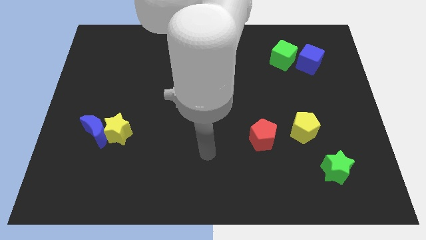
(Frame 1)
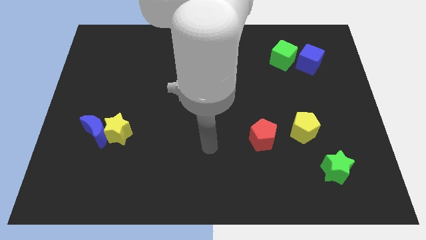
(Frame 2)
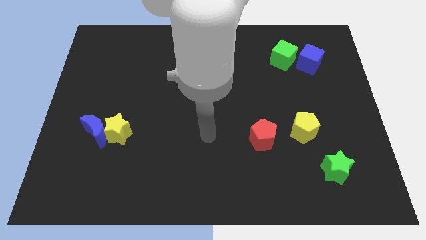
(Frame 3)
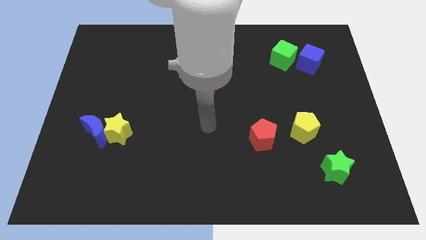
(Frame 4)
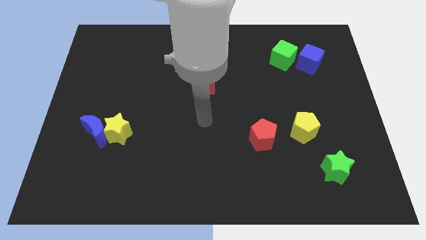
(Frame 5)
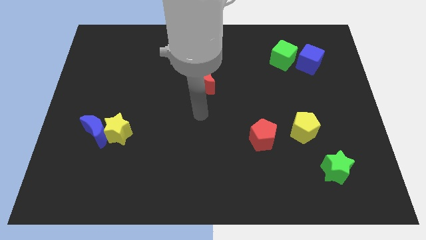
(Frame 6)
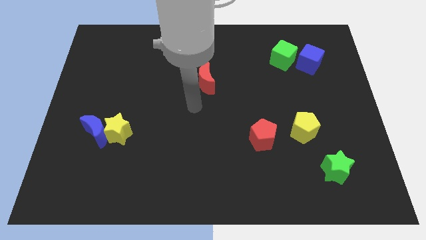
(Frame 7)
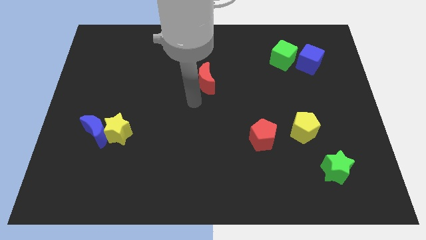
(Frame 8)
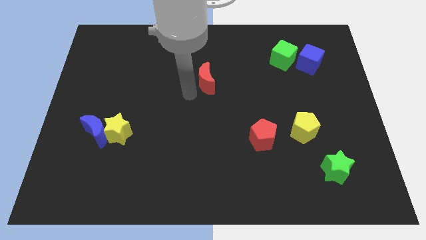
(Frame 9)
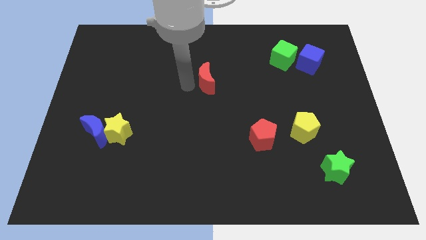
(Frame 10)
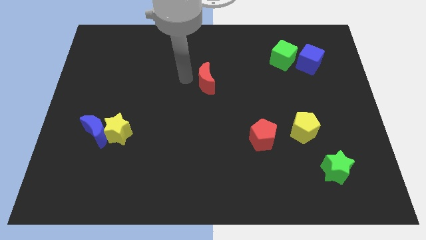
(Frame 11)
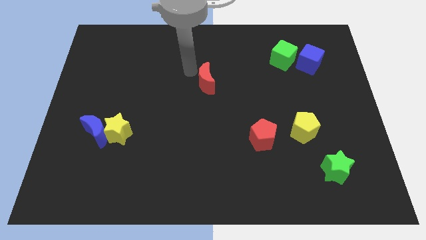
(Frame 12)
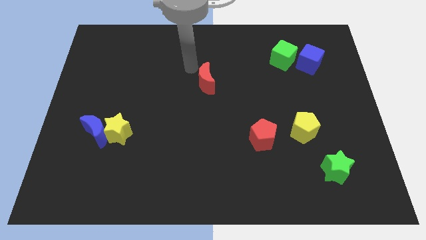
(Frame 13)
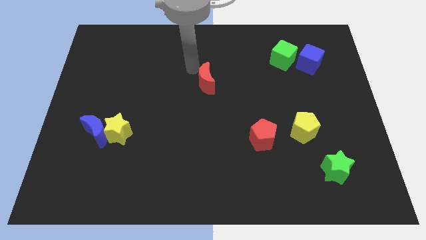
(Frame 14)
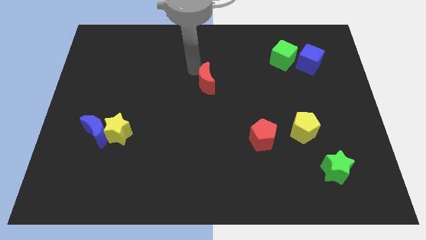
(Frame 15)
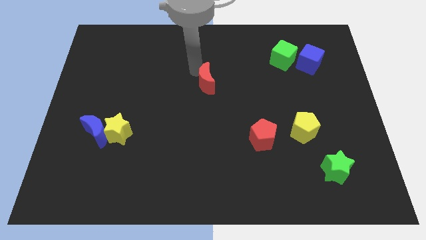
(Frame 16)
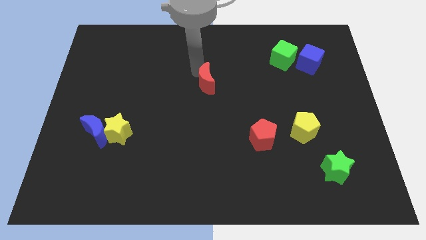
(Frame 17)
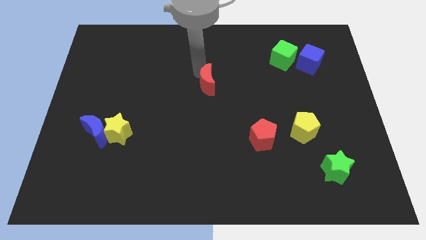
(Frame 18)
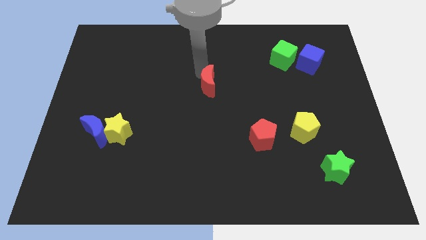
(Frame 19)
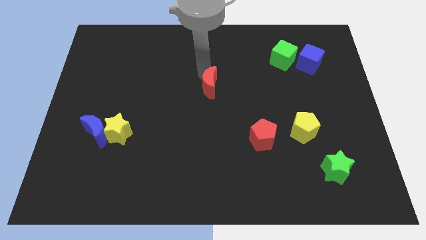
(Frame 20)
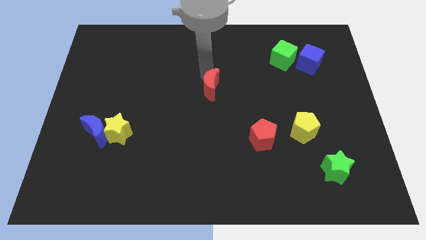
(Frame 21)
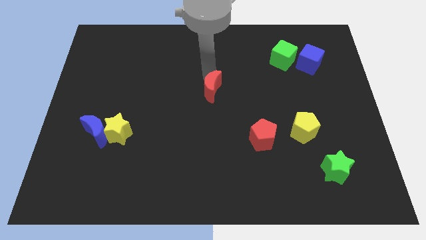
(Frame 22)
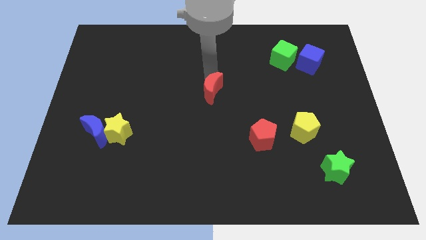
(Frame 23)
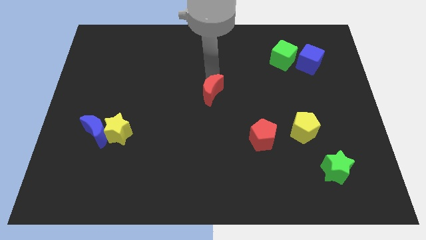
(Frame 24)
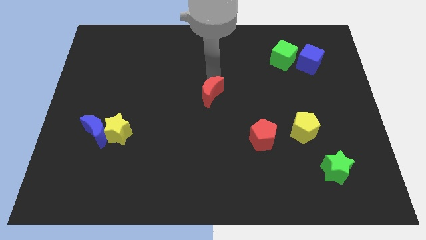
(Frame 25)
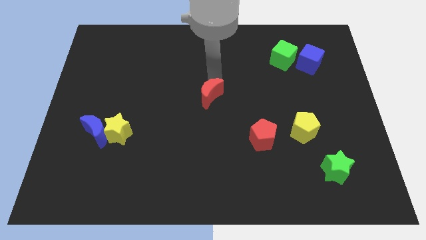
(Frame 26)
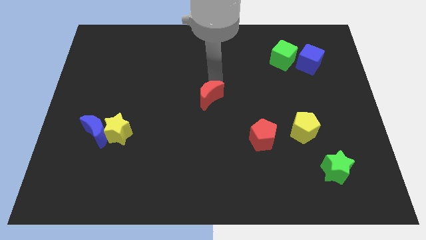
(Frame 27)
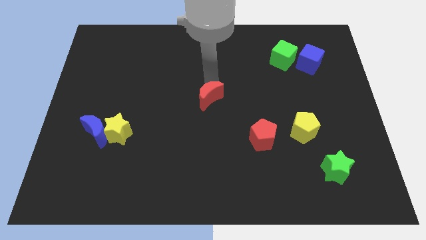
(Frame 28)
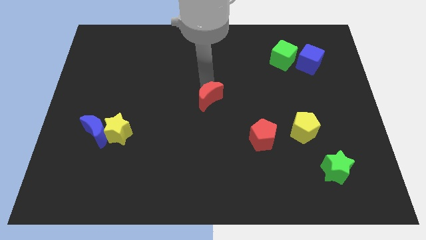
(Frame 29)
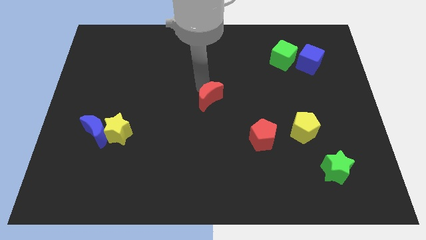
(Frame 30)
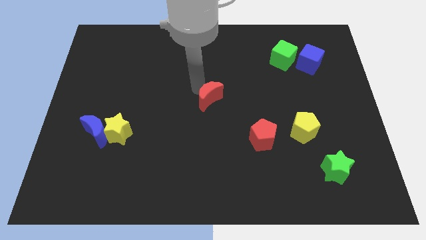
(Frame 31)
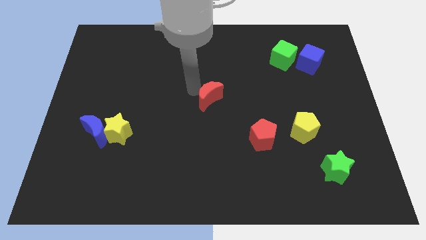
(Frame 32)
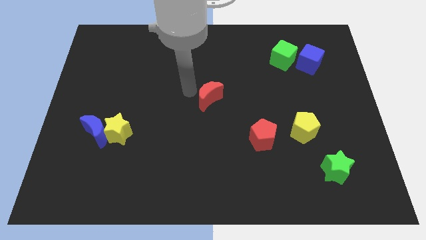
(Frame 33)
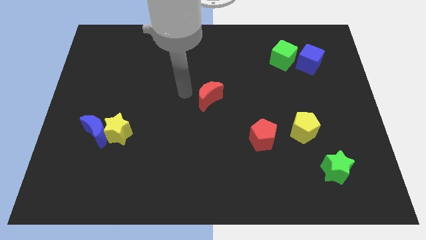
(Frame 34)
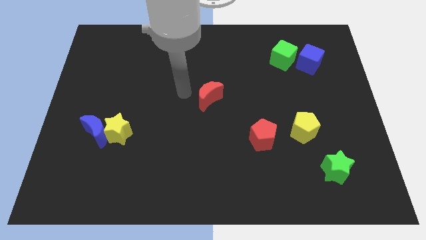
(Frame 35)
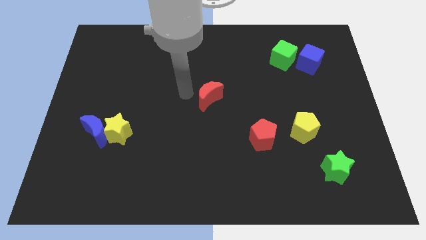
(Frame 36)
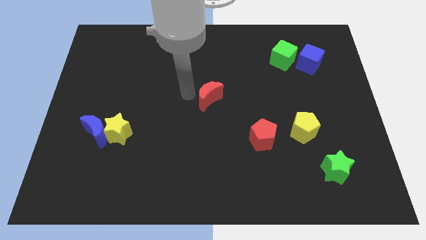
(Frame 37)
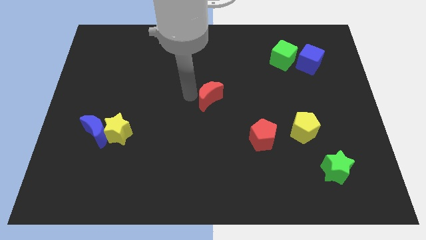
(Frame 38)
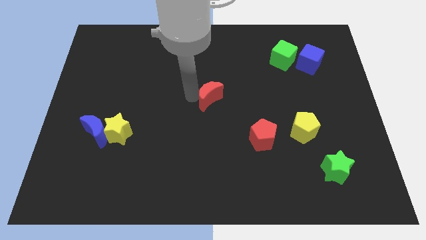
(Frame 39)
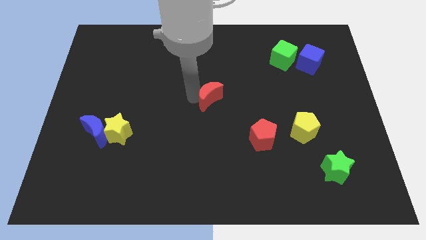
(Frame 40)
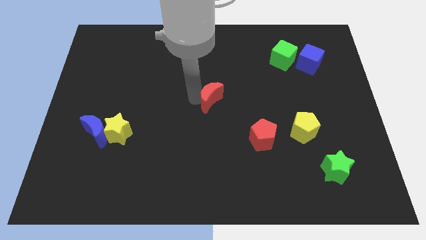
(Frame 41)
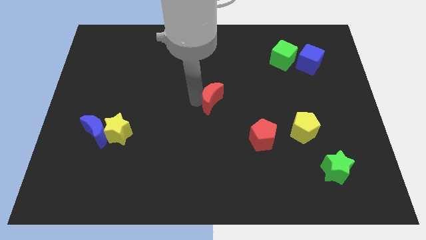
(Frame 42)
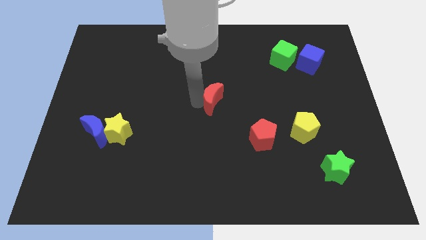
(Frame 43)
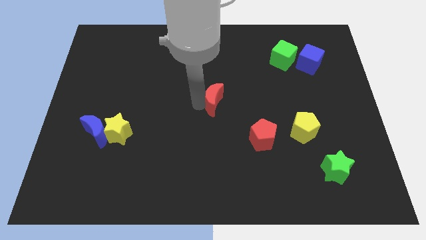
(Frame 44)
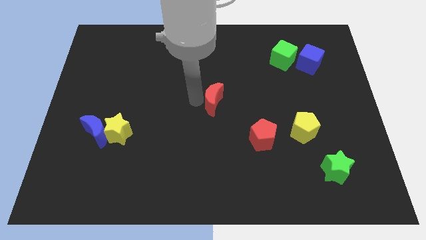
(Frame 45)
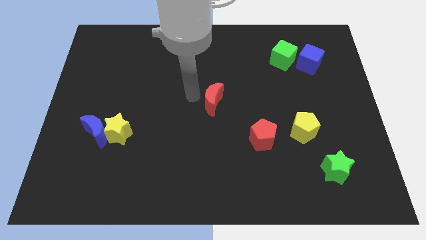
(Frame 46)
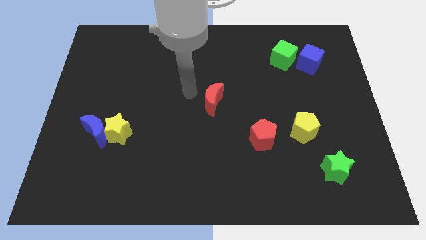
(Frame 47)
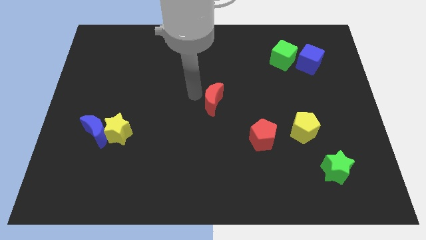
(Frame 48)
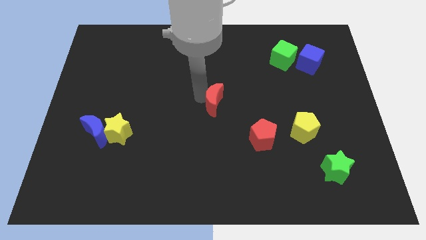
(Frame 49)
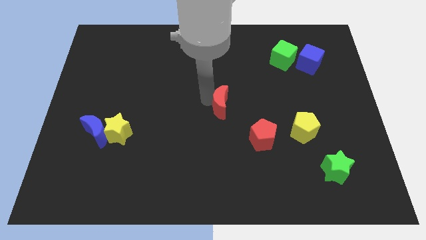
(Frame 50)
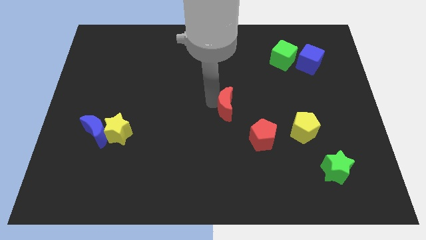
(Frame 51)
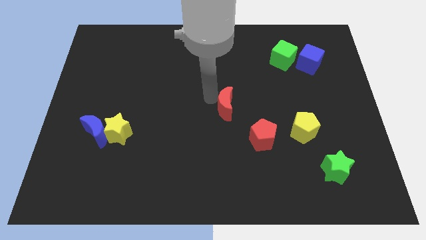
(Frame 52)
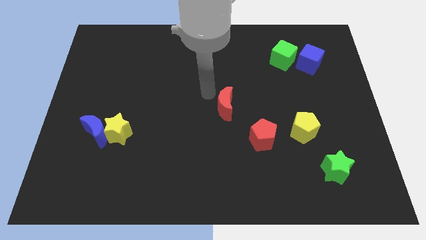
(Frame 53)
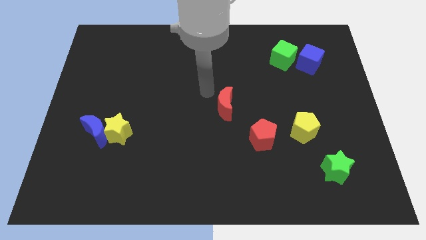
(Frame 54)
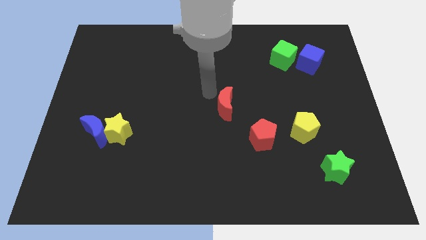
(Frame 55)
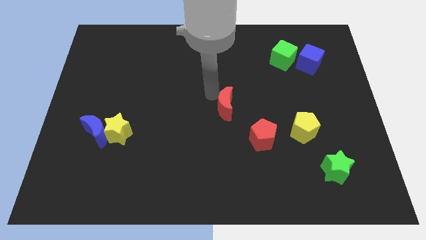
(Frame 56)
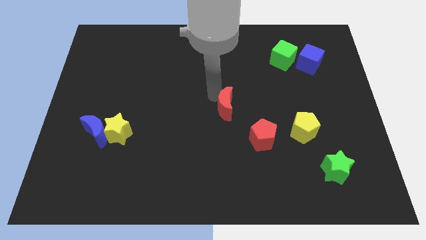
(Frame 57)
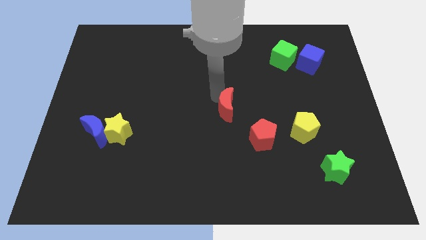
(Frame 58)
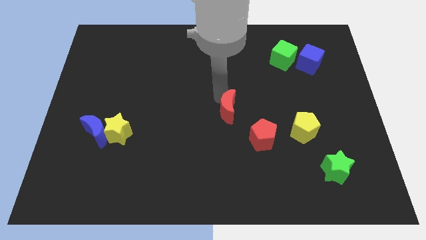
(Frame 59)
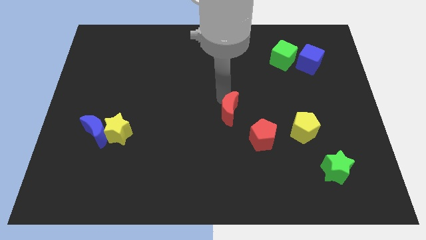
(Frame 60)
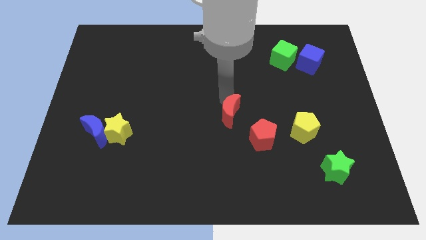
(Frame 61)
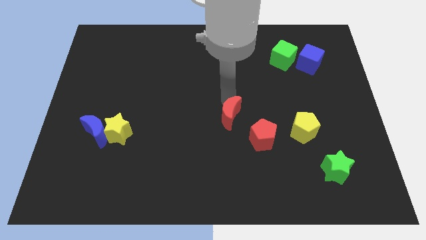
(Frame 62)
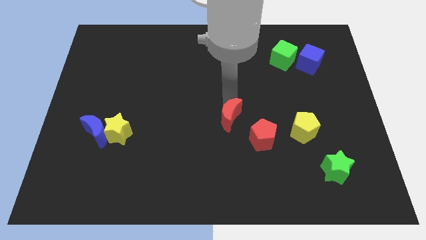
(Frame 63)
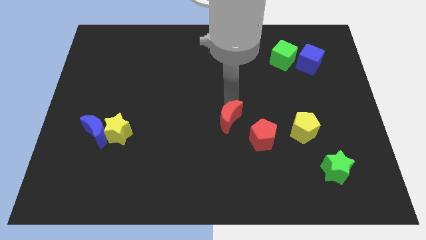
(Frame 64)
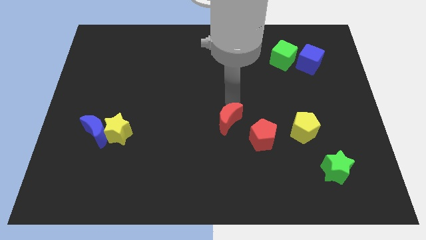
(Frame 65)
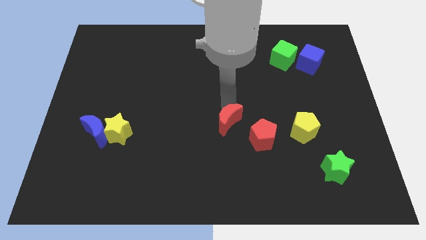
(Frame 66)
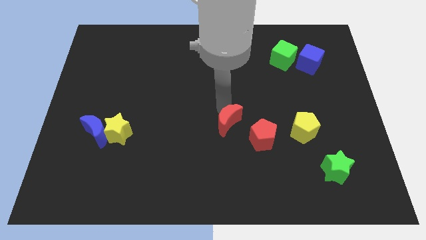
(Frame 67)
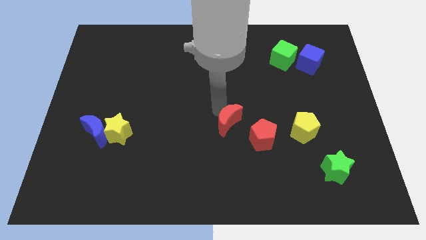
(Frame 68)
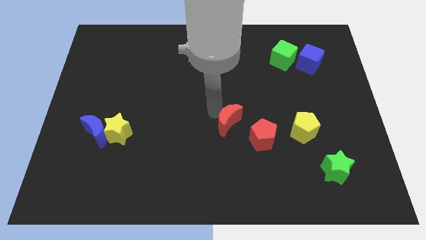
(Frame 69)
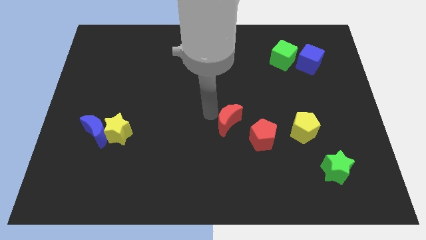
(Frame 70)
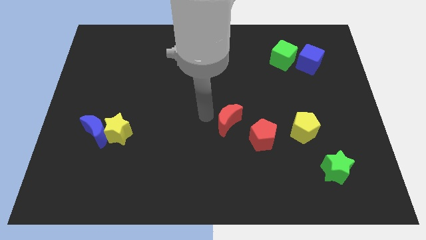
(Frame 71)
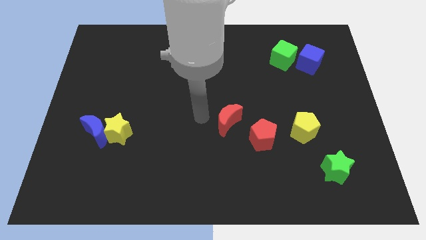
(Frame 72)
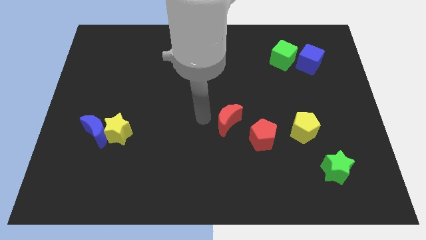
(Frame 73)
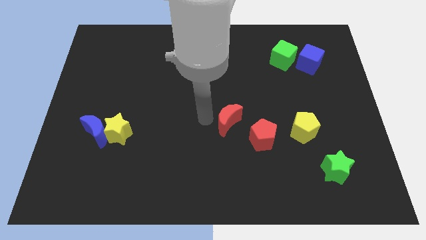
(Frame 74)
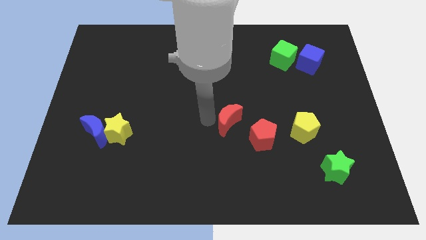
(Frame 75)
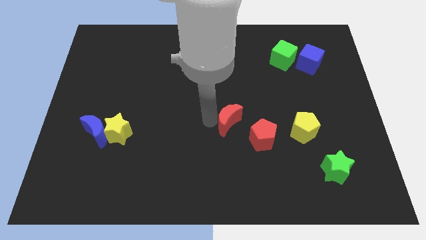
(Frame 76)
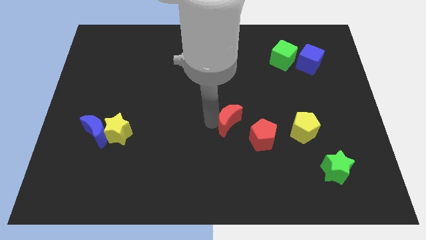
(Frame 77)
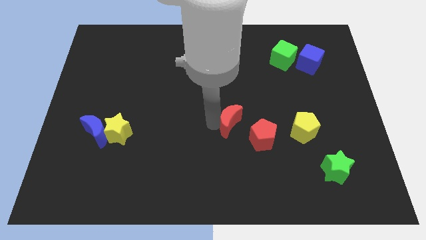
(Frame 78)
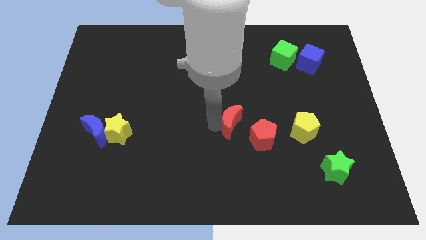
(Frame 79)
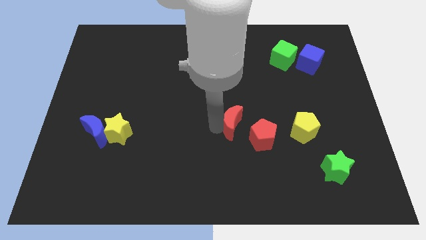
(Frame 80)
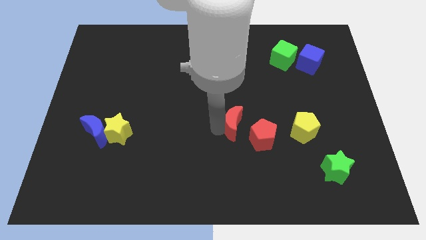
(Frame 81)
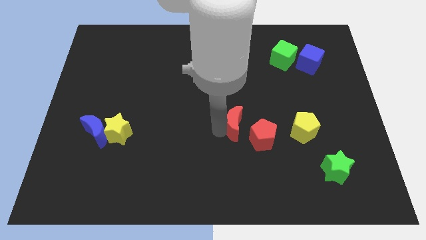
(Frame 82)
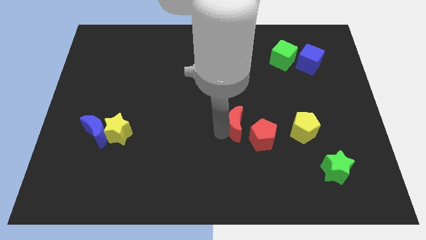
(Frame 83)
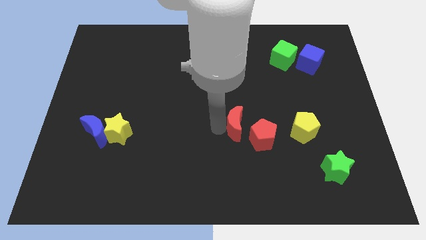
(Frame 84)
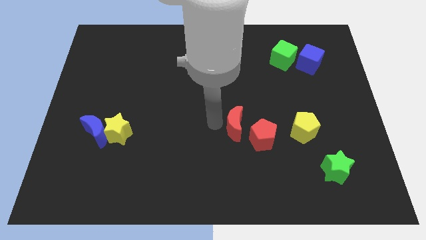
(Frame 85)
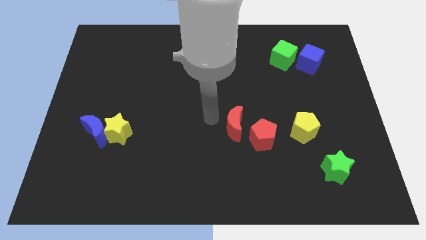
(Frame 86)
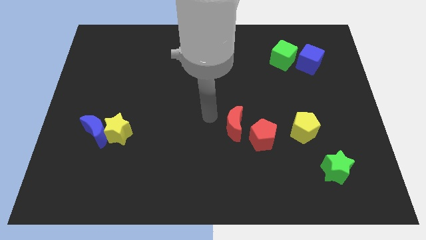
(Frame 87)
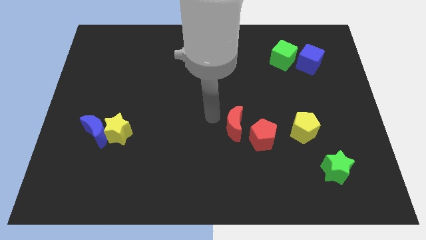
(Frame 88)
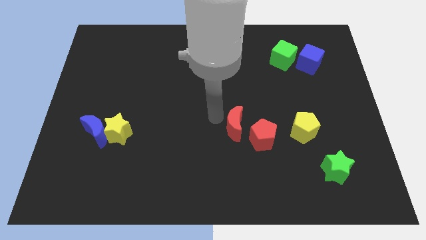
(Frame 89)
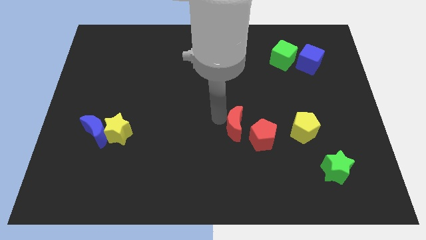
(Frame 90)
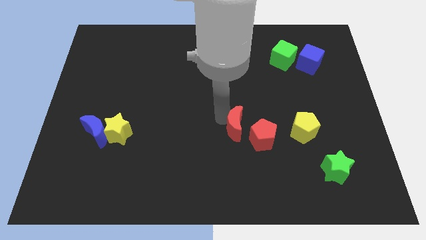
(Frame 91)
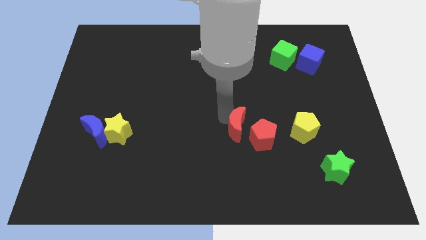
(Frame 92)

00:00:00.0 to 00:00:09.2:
move the red moon to the red pentagon
